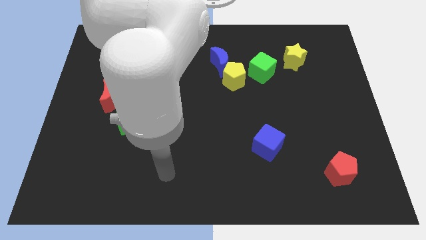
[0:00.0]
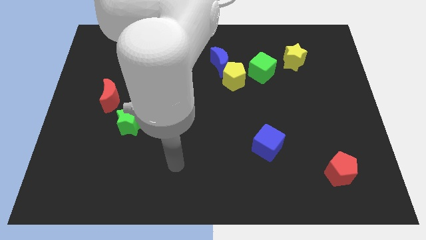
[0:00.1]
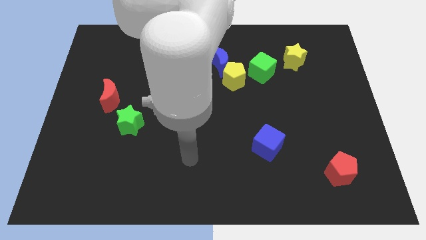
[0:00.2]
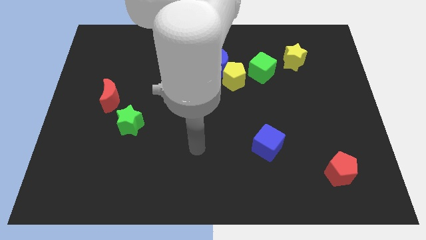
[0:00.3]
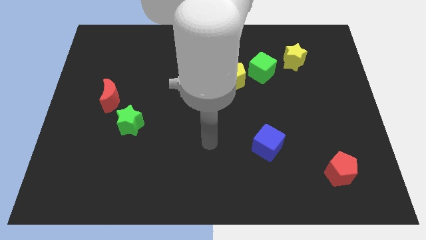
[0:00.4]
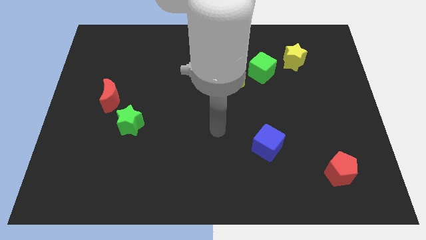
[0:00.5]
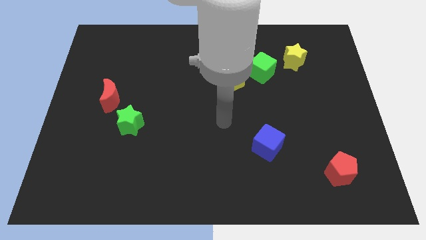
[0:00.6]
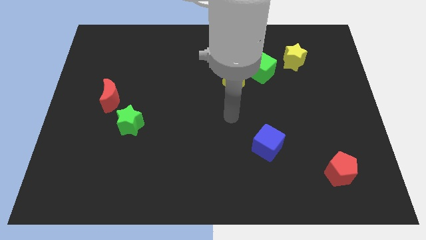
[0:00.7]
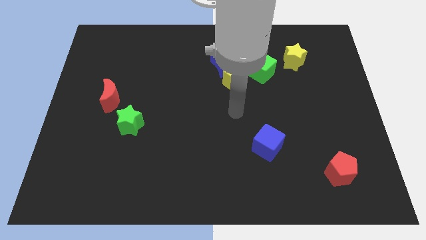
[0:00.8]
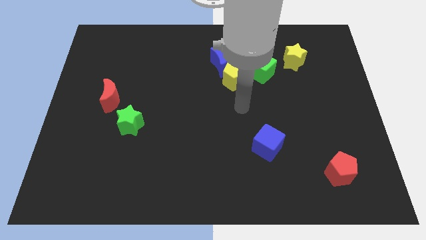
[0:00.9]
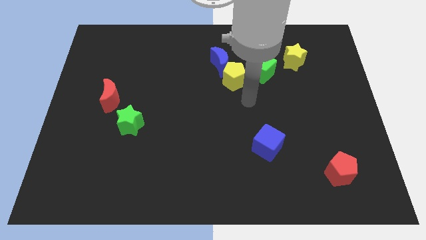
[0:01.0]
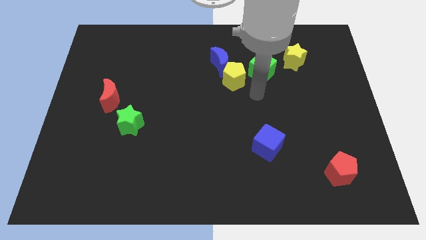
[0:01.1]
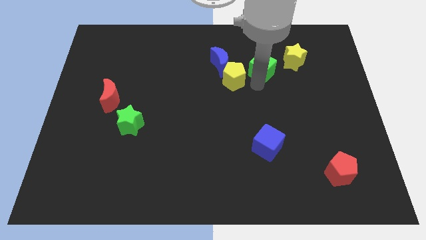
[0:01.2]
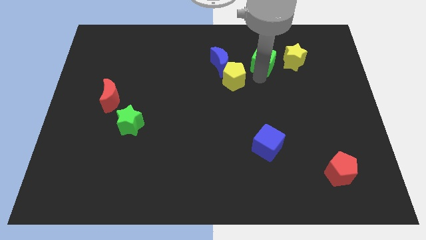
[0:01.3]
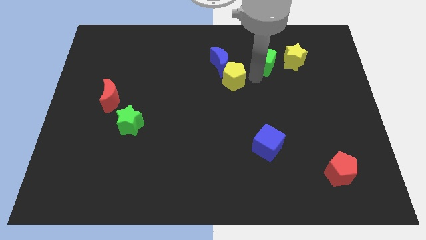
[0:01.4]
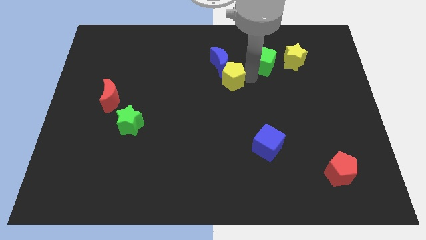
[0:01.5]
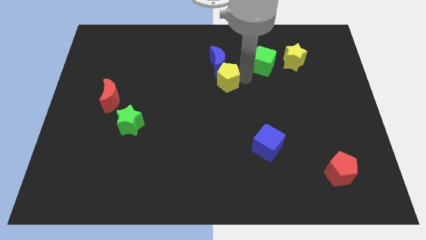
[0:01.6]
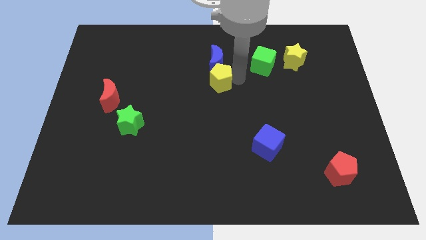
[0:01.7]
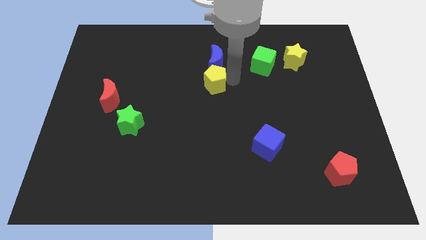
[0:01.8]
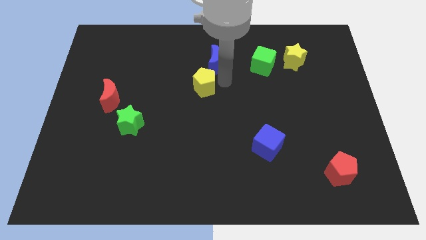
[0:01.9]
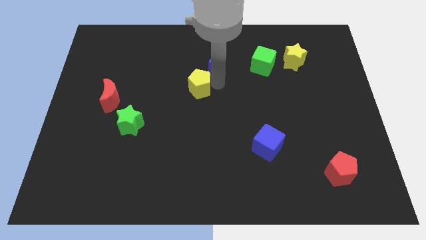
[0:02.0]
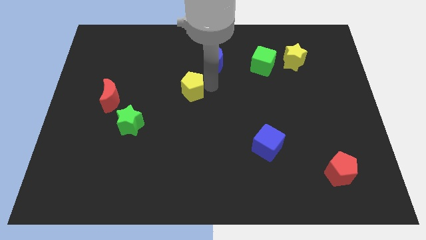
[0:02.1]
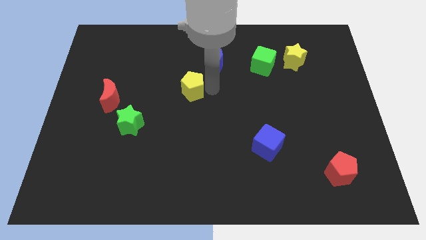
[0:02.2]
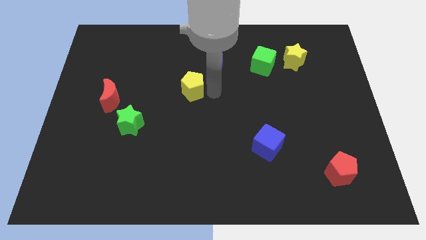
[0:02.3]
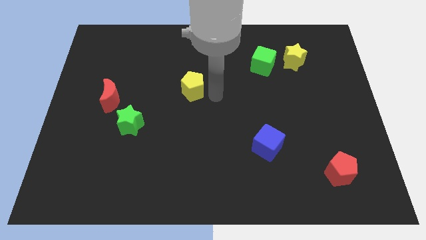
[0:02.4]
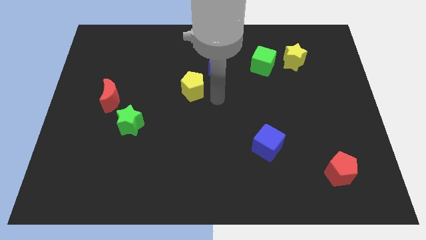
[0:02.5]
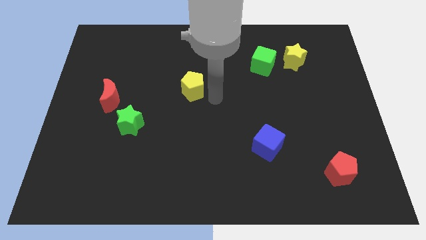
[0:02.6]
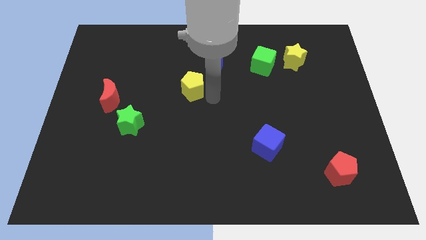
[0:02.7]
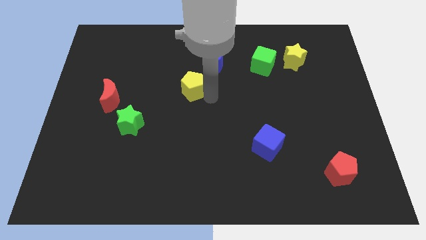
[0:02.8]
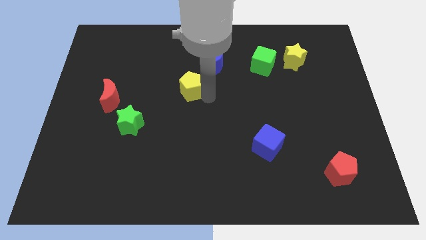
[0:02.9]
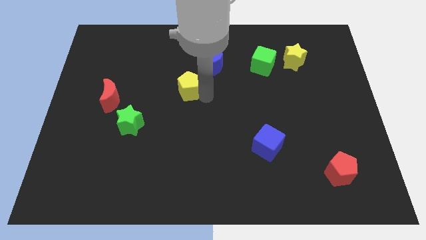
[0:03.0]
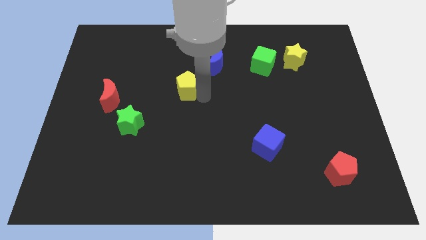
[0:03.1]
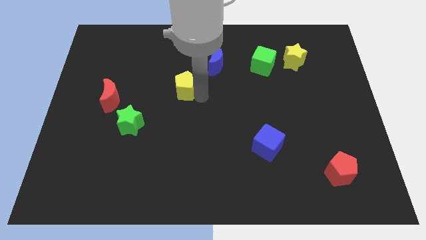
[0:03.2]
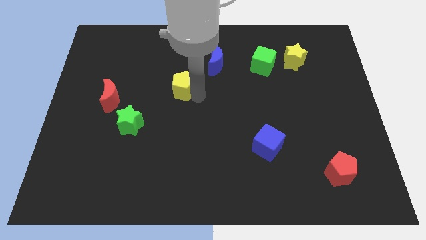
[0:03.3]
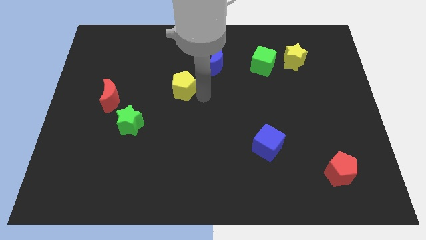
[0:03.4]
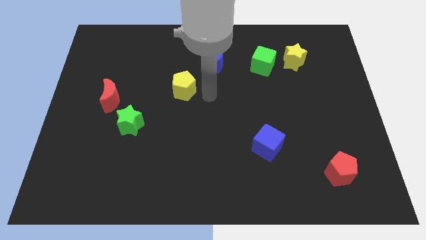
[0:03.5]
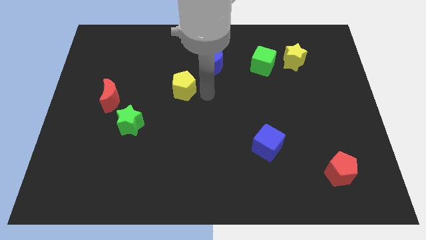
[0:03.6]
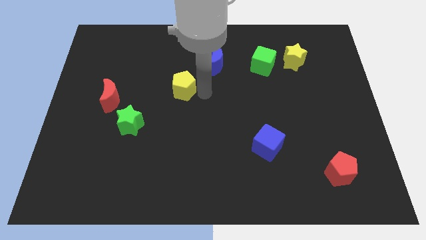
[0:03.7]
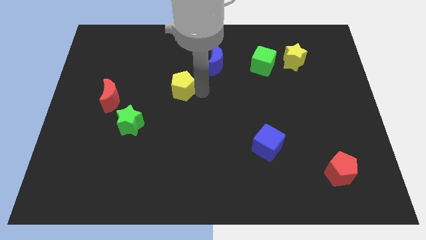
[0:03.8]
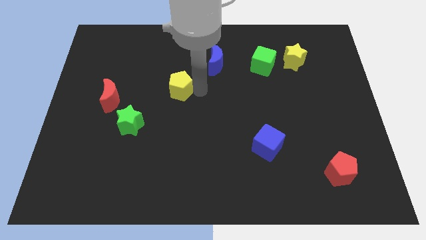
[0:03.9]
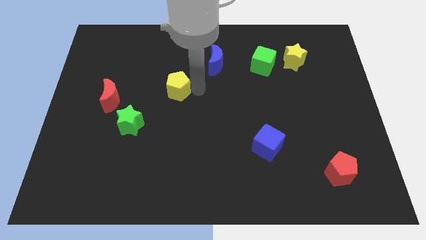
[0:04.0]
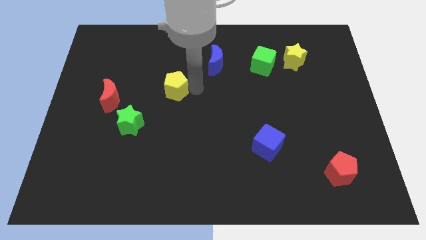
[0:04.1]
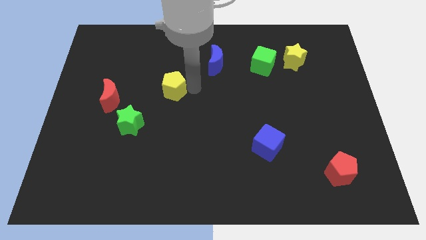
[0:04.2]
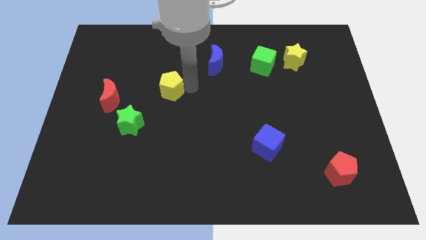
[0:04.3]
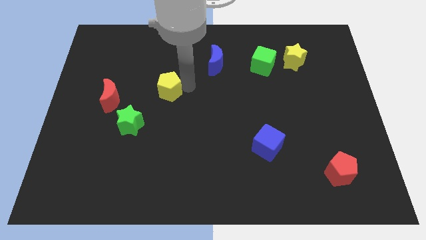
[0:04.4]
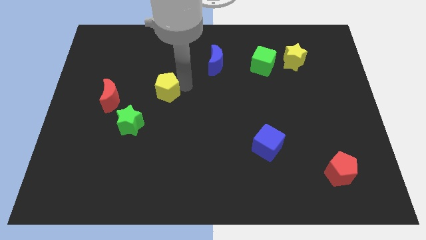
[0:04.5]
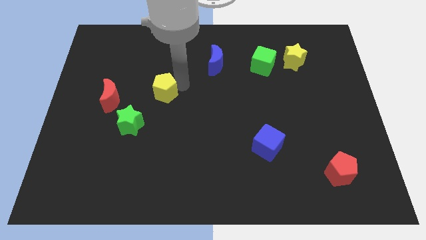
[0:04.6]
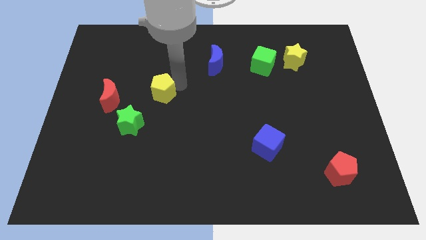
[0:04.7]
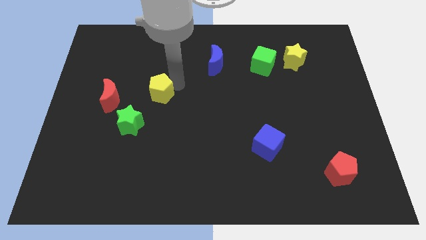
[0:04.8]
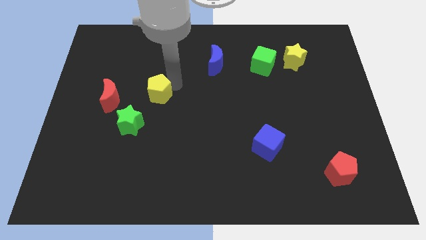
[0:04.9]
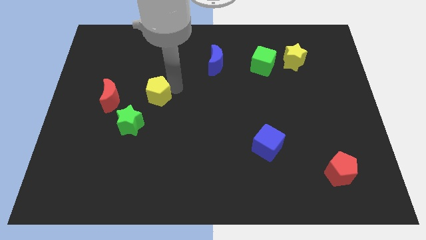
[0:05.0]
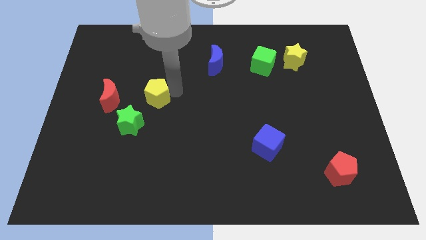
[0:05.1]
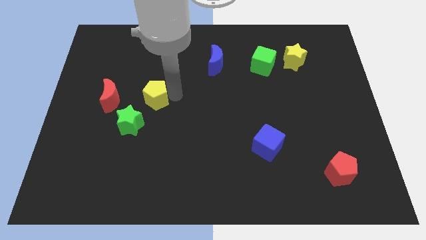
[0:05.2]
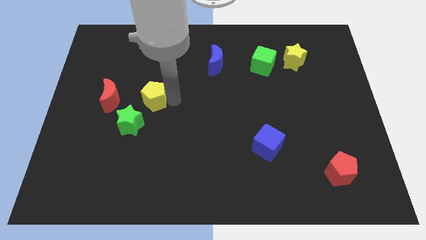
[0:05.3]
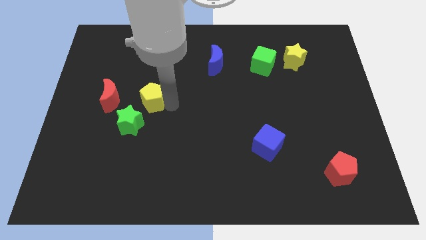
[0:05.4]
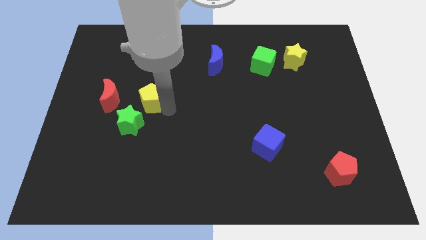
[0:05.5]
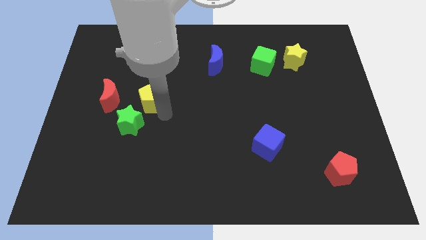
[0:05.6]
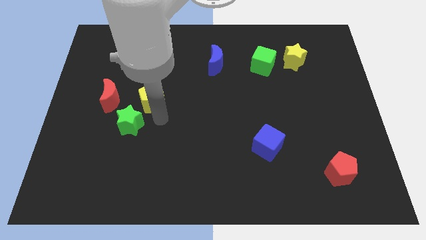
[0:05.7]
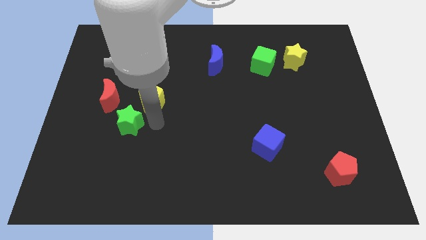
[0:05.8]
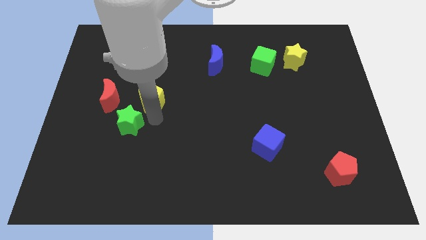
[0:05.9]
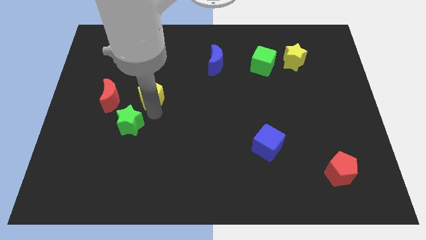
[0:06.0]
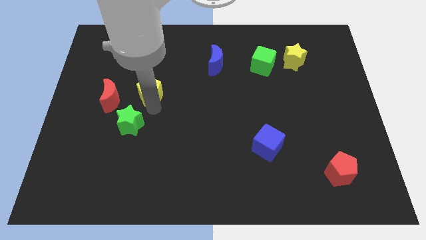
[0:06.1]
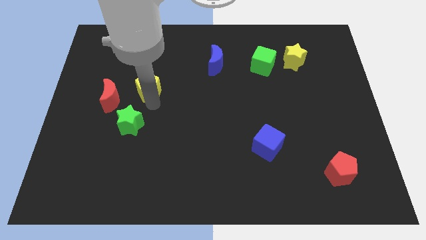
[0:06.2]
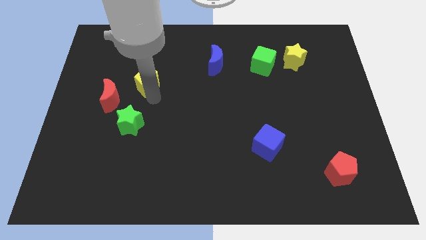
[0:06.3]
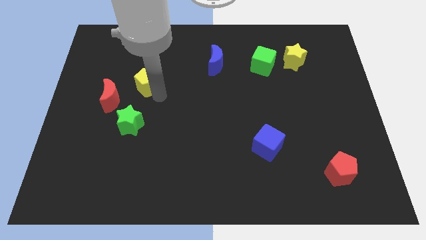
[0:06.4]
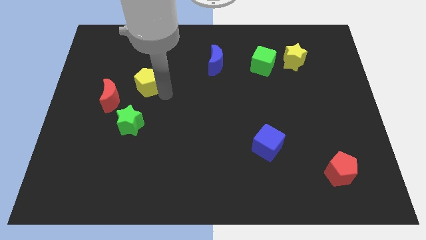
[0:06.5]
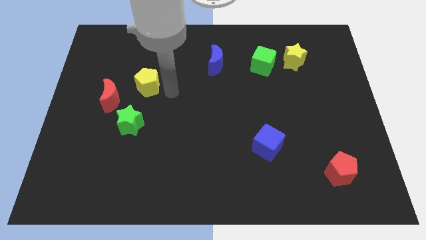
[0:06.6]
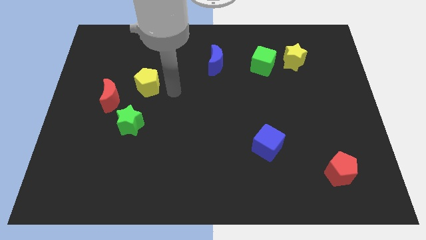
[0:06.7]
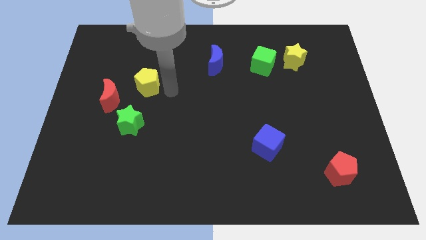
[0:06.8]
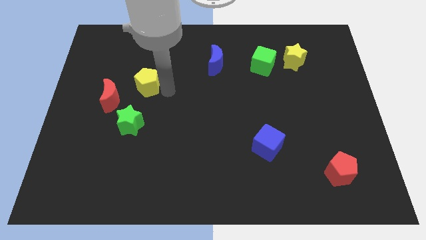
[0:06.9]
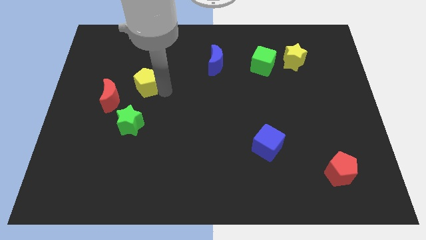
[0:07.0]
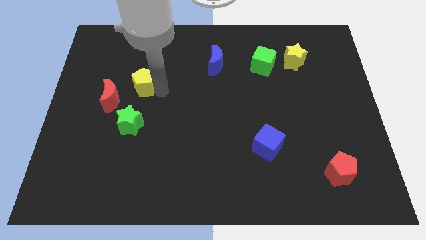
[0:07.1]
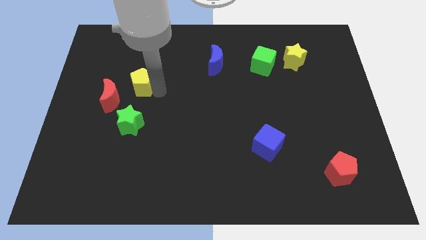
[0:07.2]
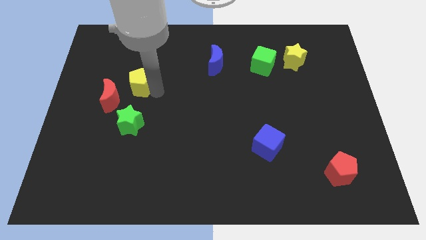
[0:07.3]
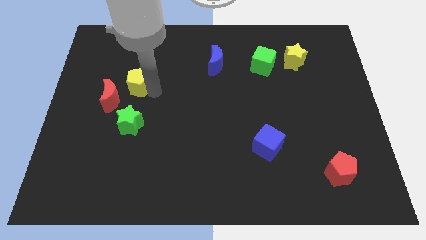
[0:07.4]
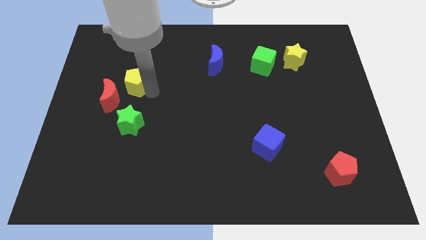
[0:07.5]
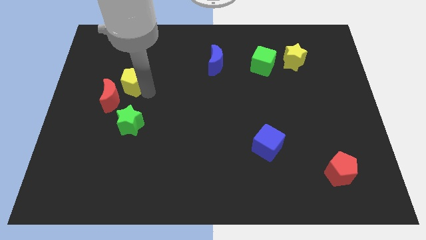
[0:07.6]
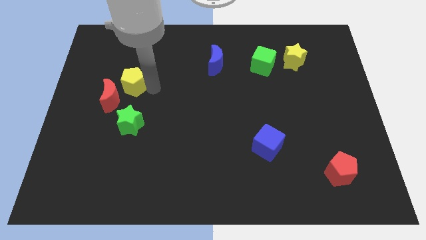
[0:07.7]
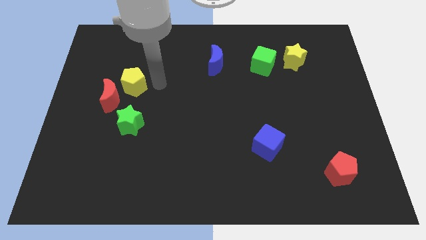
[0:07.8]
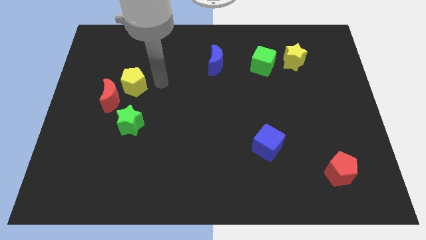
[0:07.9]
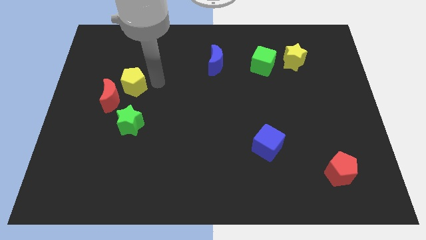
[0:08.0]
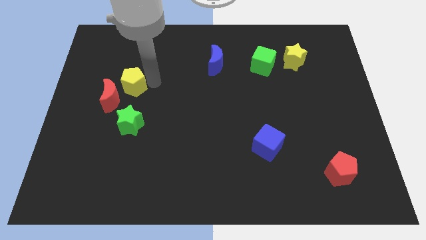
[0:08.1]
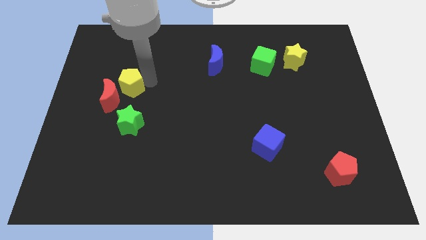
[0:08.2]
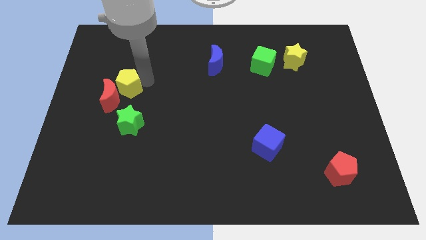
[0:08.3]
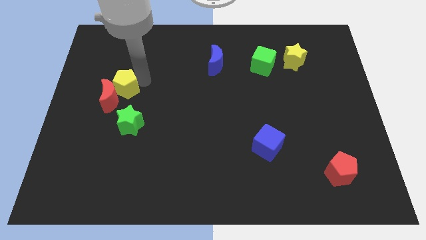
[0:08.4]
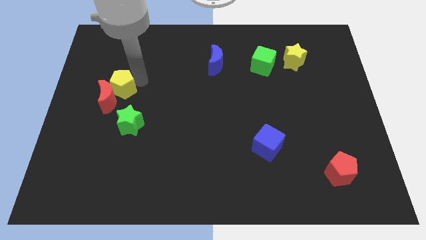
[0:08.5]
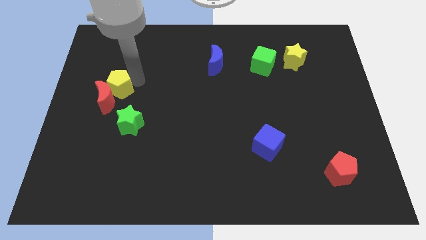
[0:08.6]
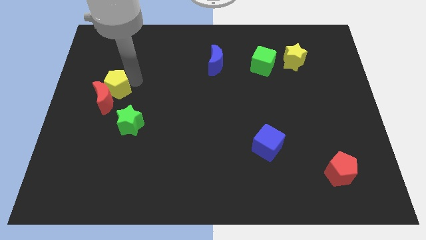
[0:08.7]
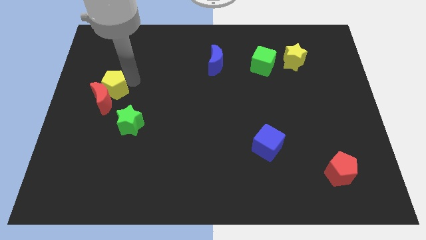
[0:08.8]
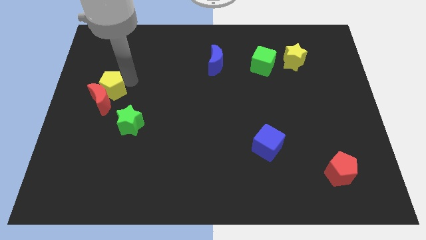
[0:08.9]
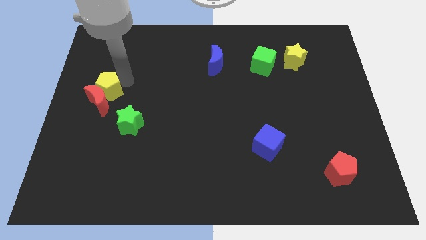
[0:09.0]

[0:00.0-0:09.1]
push the yellow pentagon to the center left
